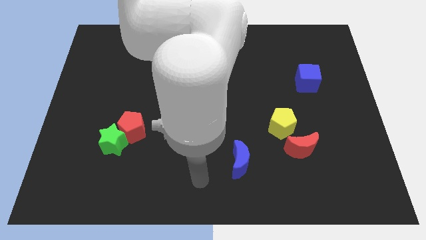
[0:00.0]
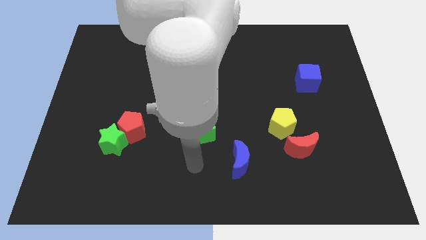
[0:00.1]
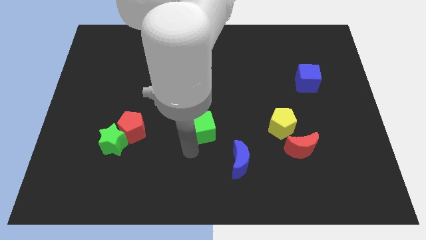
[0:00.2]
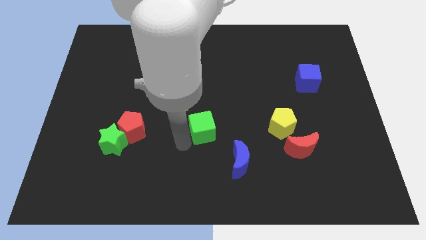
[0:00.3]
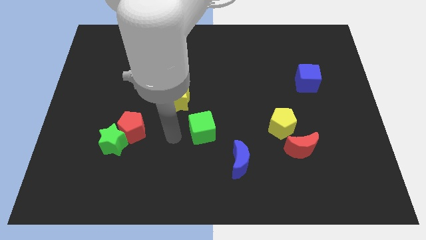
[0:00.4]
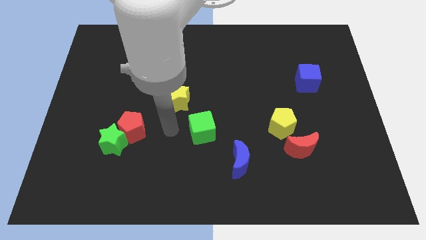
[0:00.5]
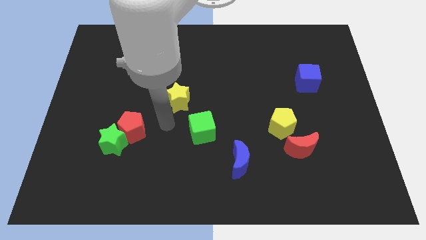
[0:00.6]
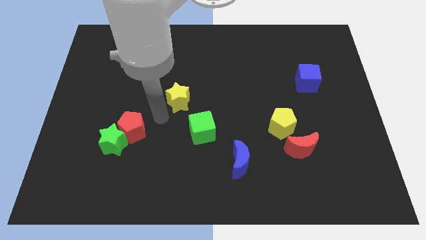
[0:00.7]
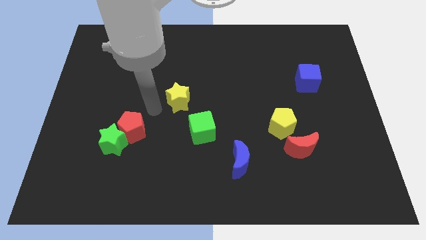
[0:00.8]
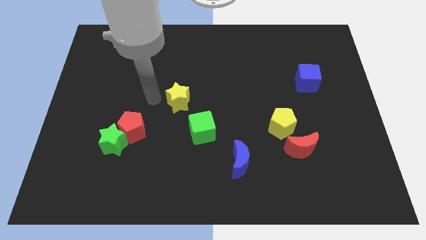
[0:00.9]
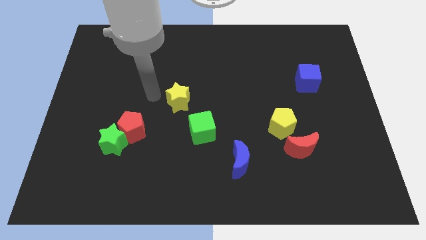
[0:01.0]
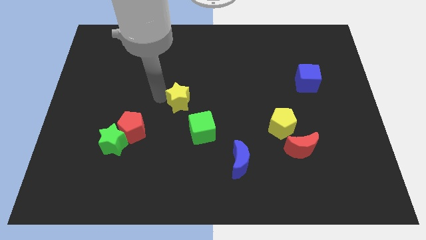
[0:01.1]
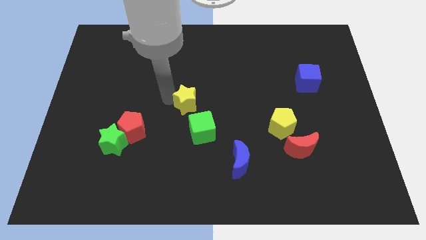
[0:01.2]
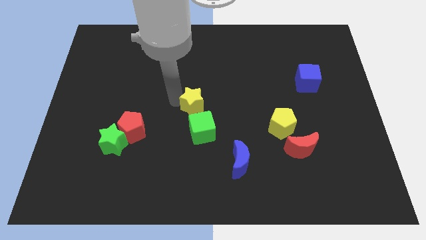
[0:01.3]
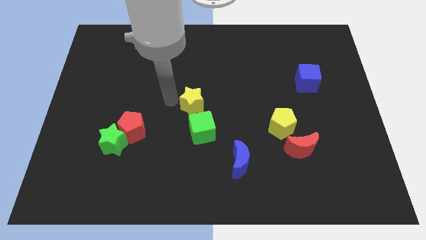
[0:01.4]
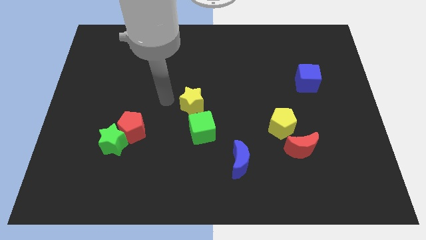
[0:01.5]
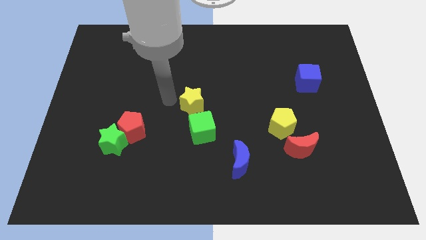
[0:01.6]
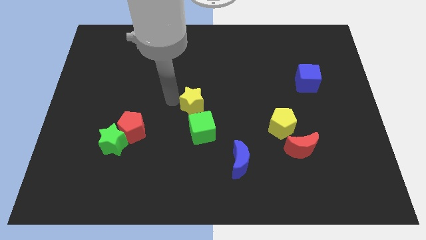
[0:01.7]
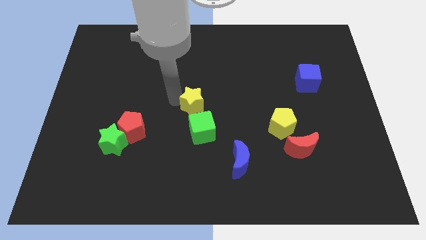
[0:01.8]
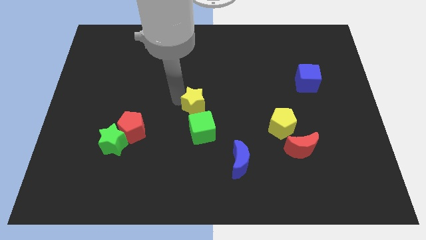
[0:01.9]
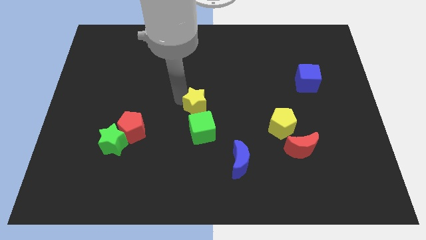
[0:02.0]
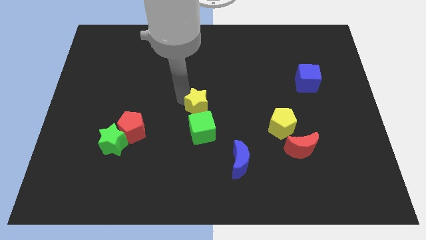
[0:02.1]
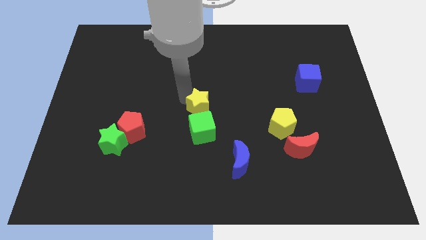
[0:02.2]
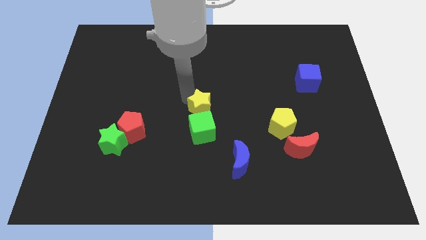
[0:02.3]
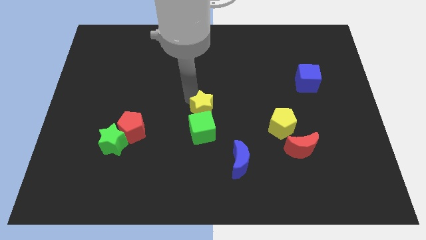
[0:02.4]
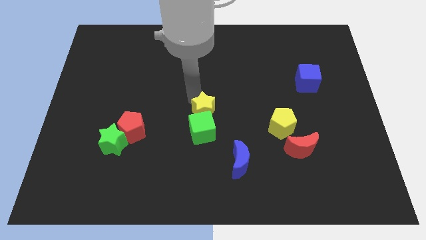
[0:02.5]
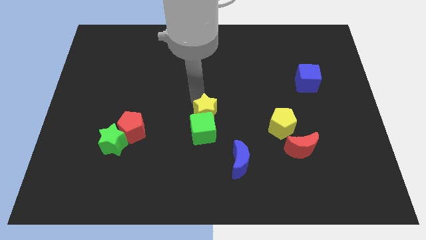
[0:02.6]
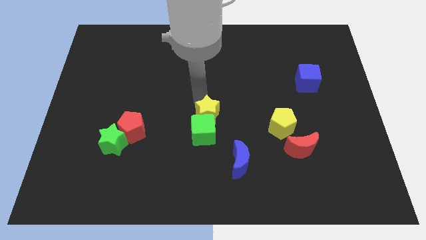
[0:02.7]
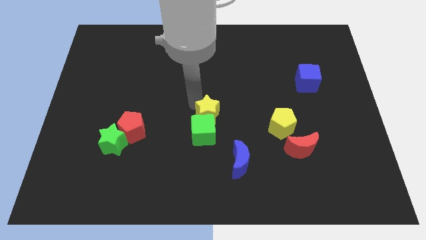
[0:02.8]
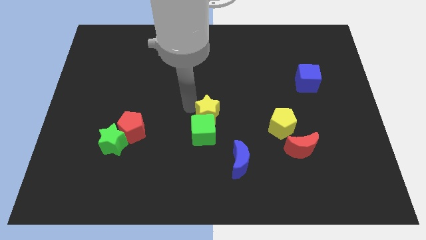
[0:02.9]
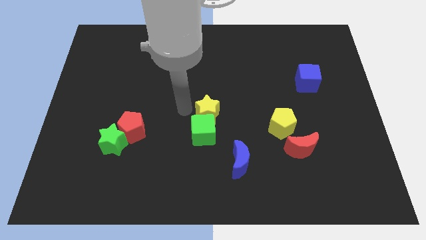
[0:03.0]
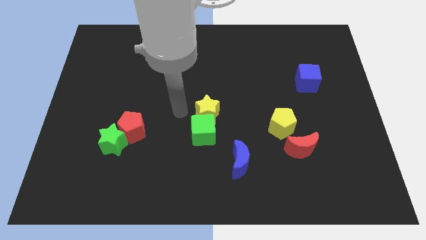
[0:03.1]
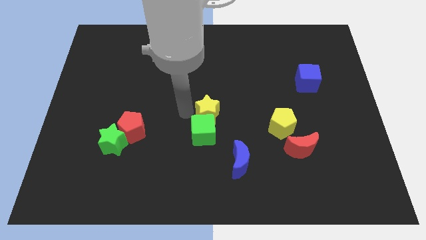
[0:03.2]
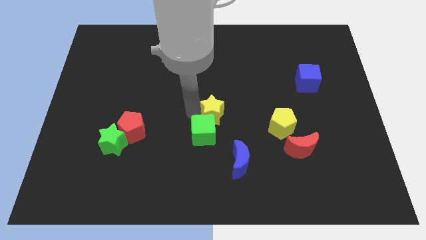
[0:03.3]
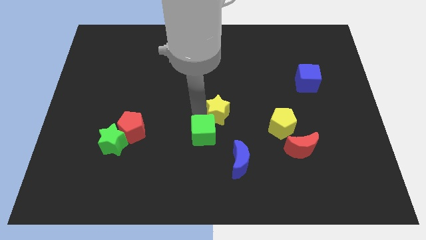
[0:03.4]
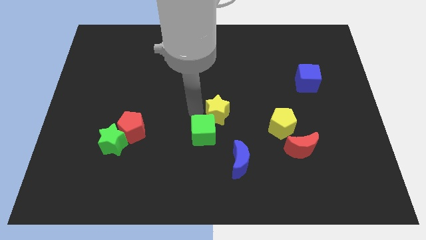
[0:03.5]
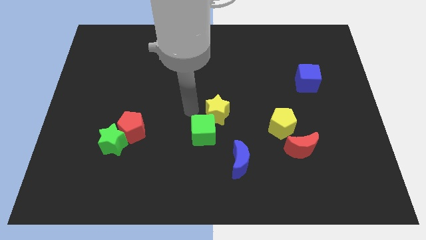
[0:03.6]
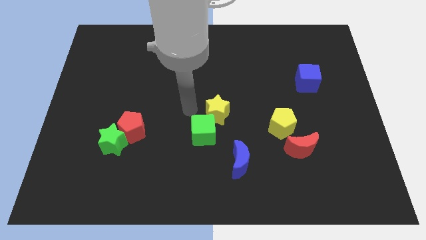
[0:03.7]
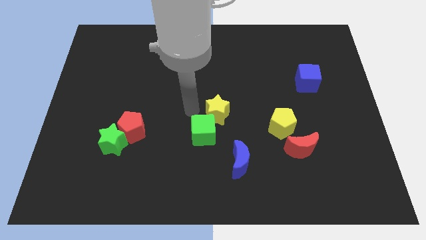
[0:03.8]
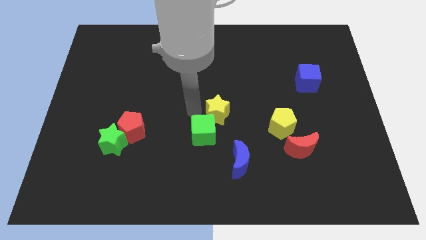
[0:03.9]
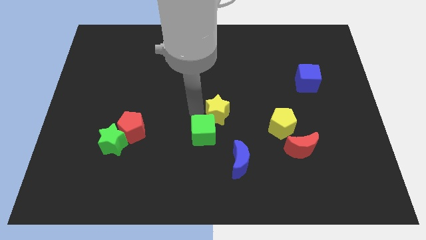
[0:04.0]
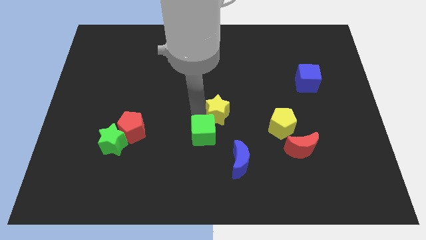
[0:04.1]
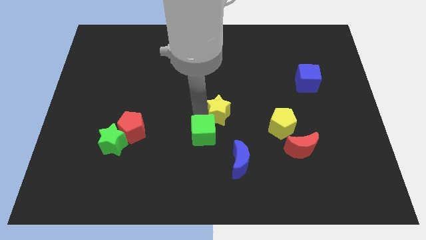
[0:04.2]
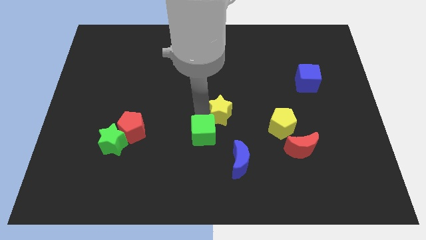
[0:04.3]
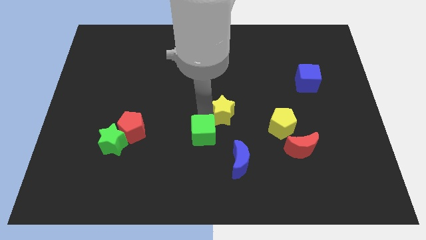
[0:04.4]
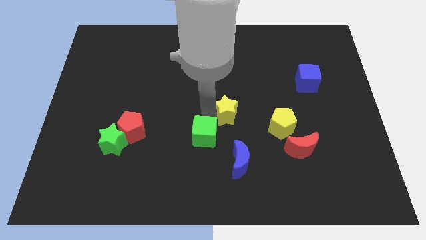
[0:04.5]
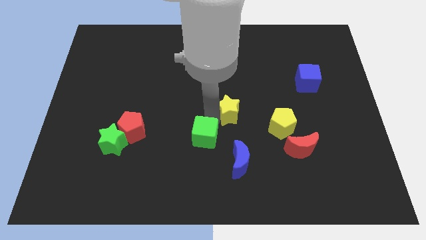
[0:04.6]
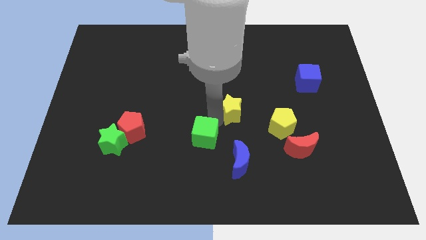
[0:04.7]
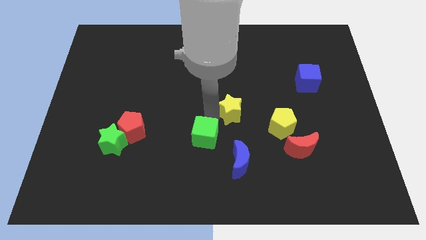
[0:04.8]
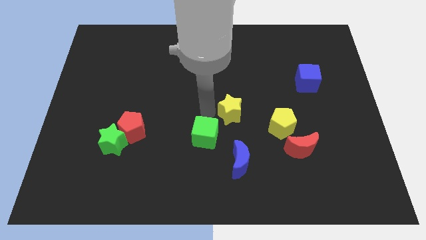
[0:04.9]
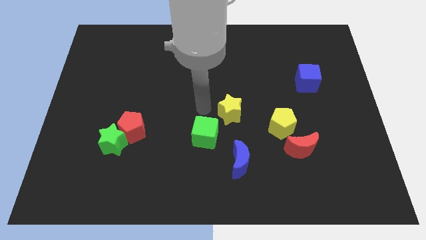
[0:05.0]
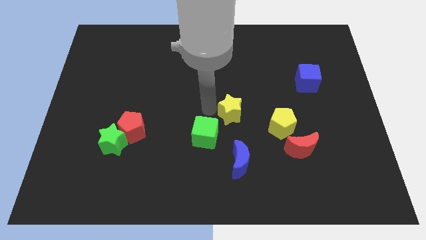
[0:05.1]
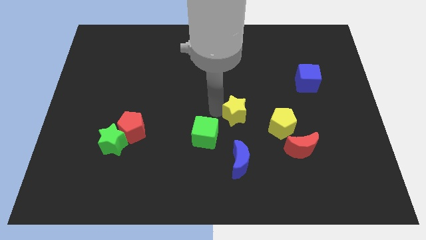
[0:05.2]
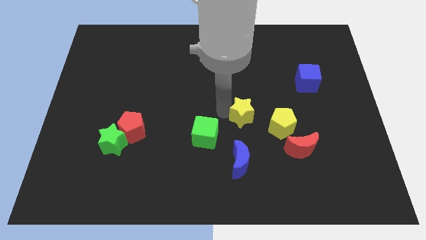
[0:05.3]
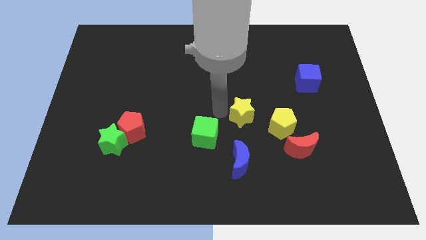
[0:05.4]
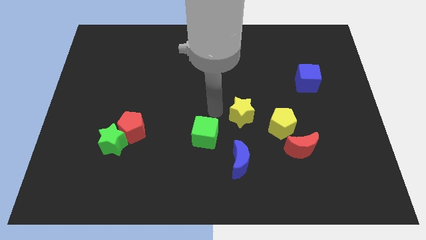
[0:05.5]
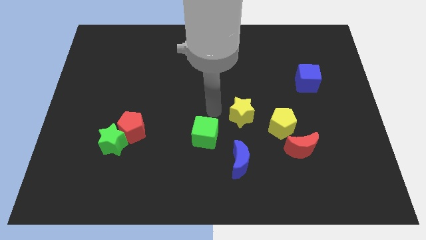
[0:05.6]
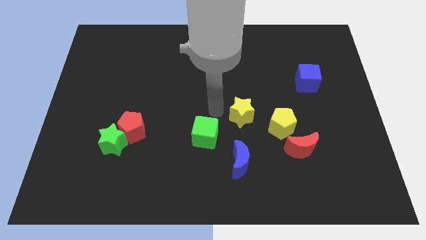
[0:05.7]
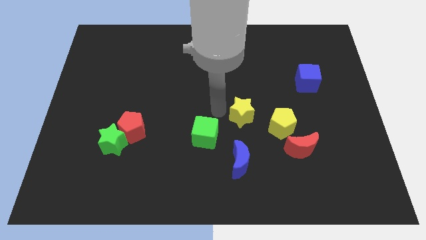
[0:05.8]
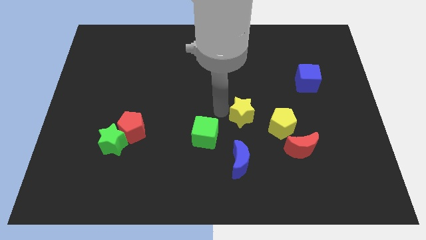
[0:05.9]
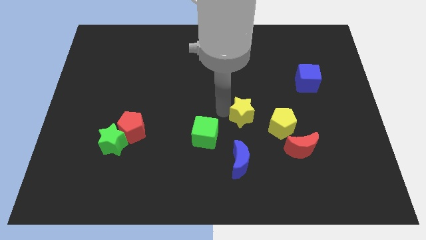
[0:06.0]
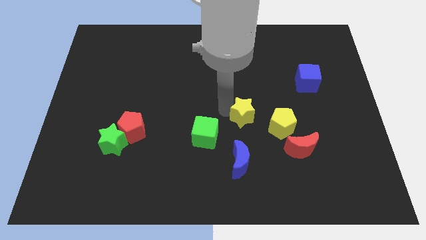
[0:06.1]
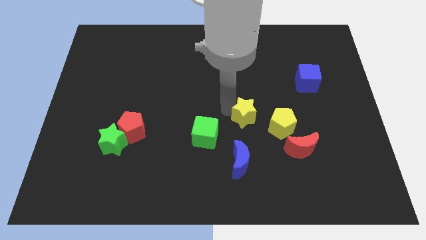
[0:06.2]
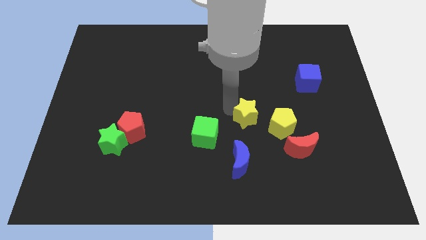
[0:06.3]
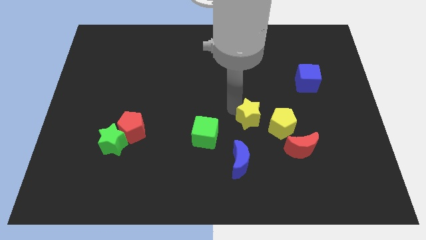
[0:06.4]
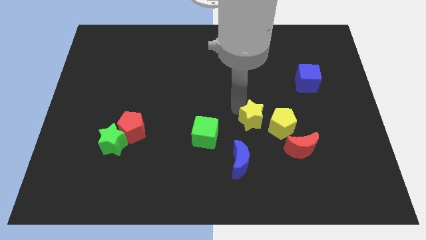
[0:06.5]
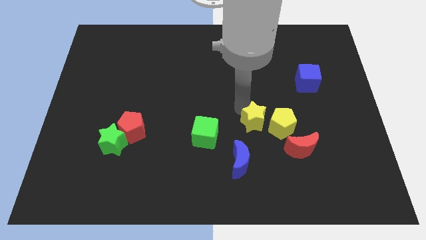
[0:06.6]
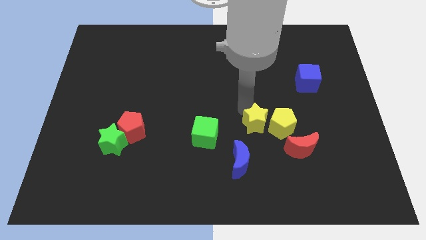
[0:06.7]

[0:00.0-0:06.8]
slide the yellow star next to the yellow pentagon

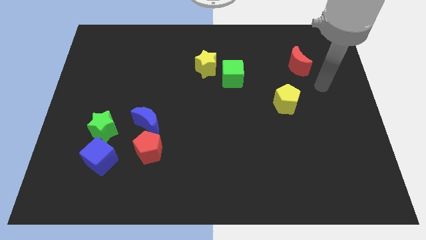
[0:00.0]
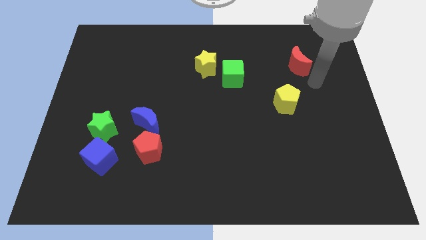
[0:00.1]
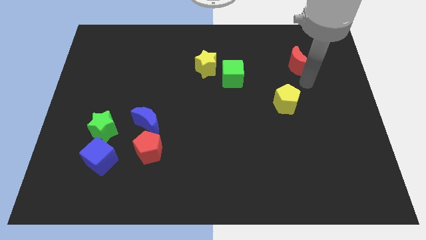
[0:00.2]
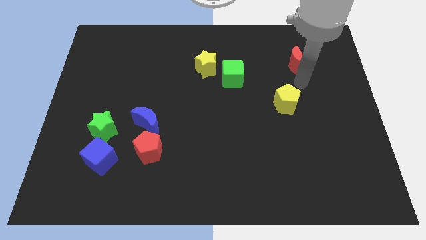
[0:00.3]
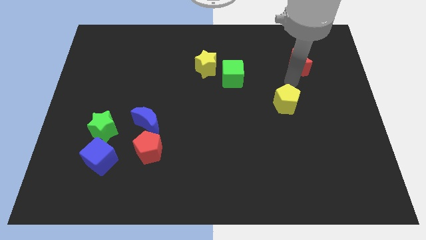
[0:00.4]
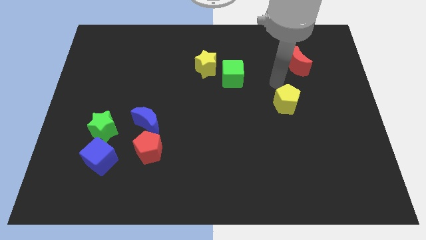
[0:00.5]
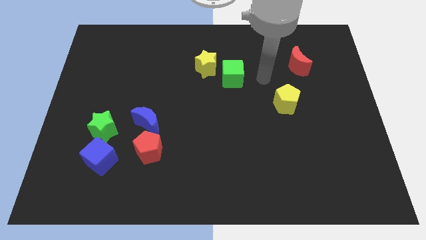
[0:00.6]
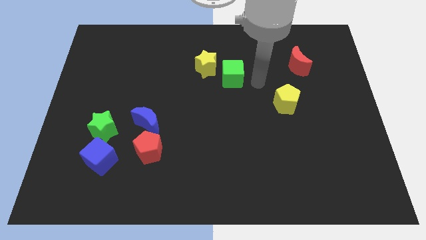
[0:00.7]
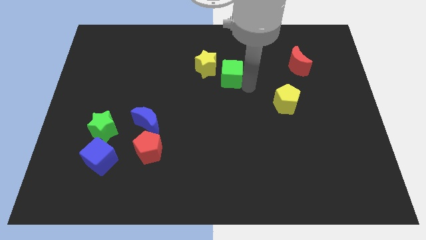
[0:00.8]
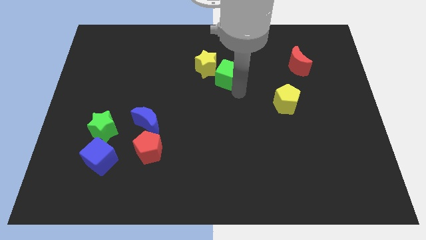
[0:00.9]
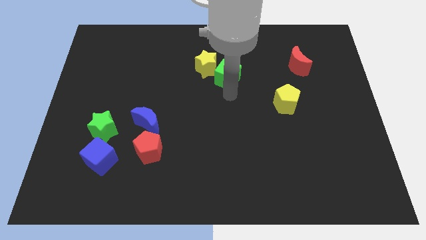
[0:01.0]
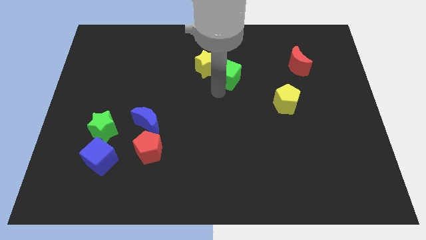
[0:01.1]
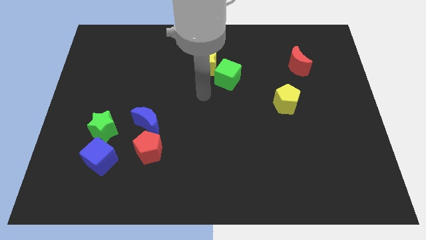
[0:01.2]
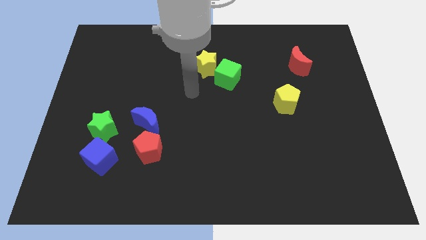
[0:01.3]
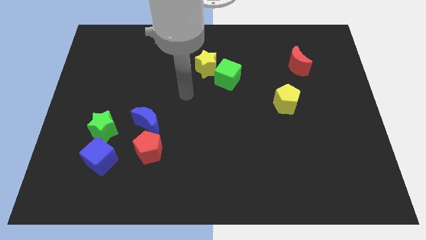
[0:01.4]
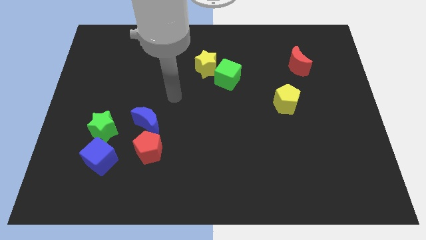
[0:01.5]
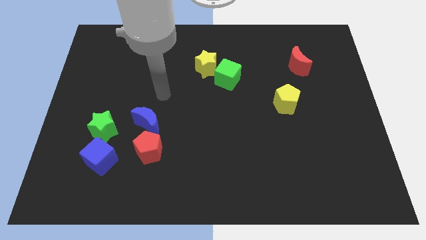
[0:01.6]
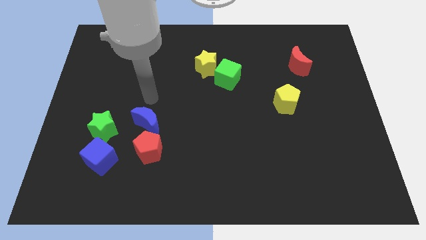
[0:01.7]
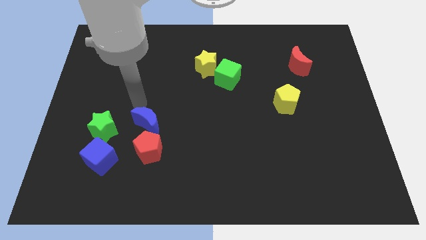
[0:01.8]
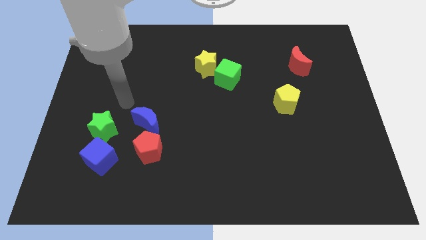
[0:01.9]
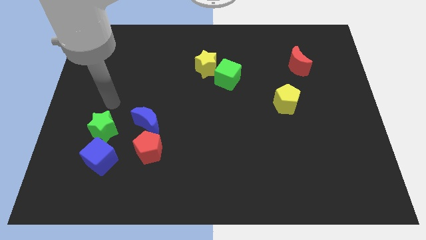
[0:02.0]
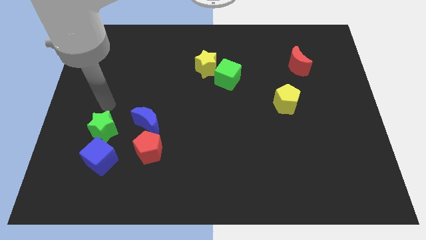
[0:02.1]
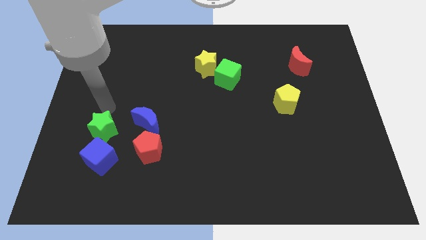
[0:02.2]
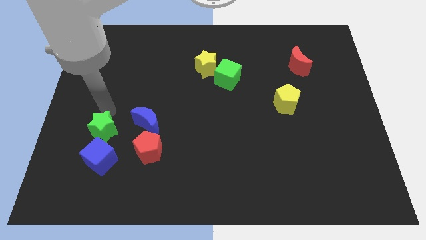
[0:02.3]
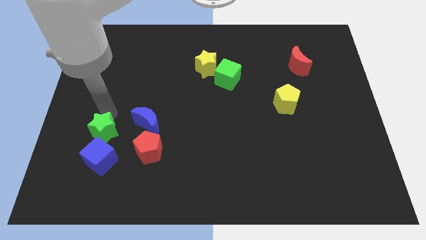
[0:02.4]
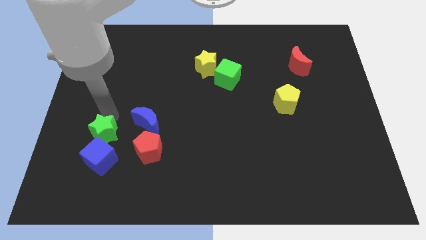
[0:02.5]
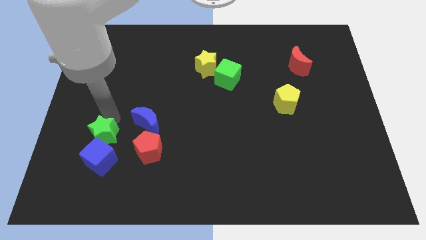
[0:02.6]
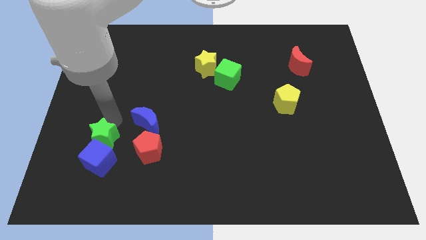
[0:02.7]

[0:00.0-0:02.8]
push the green star to the blue cube
